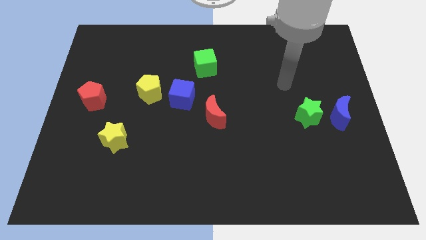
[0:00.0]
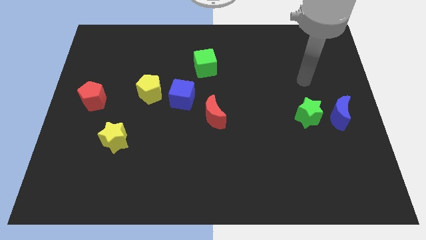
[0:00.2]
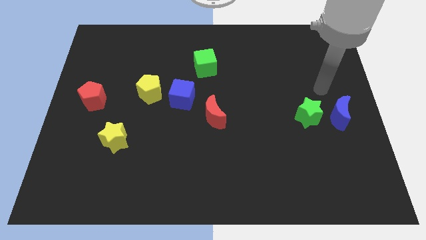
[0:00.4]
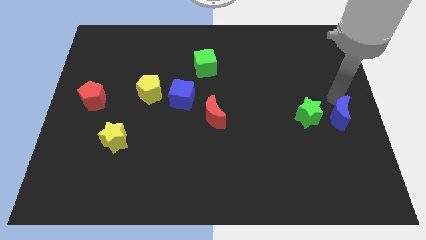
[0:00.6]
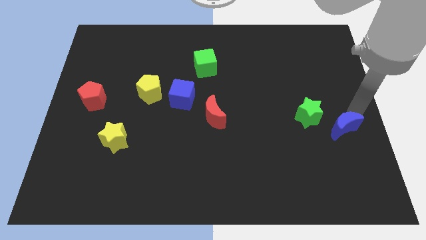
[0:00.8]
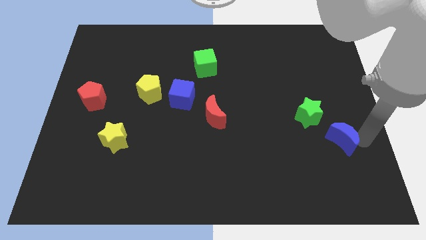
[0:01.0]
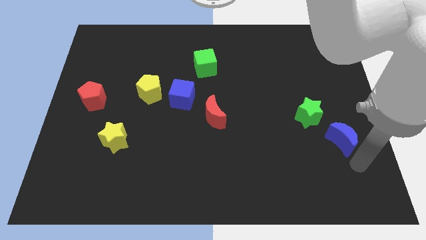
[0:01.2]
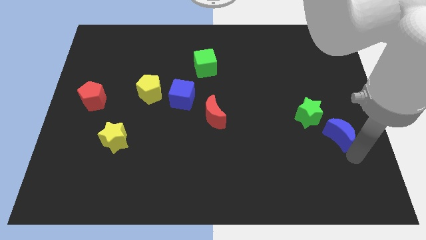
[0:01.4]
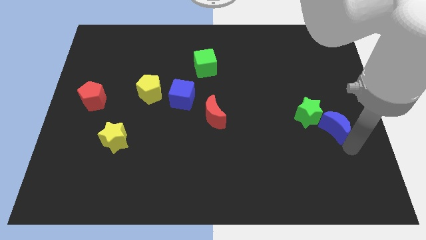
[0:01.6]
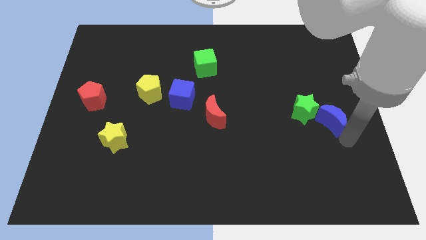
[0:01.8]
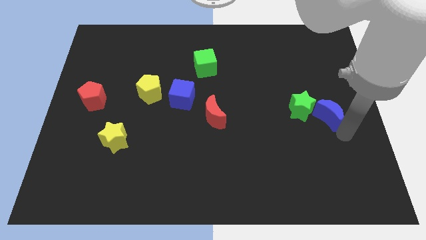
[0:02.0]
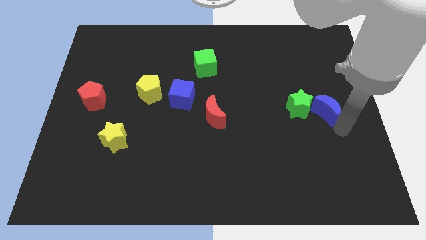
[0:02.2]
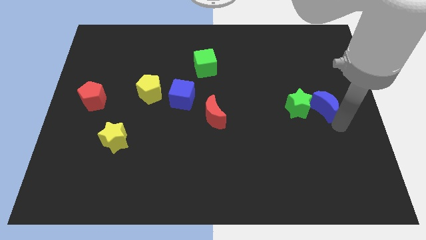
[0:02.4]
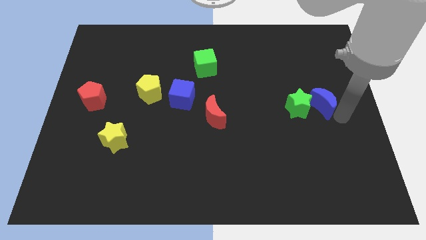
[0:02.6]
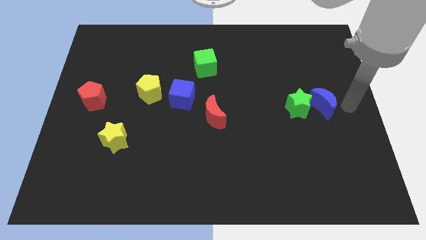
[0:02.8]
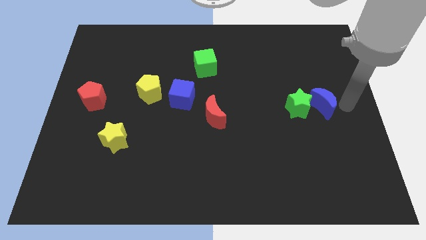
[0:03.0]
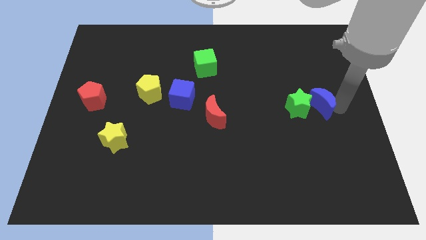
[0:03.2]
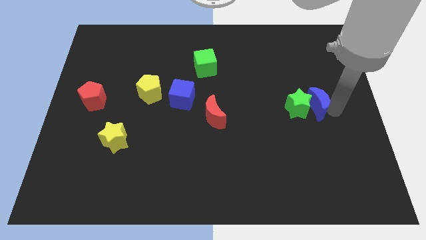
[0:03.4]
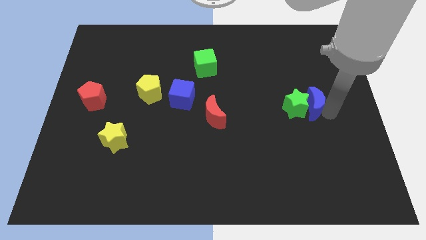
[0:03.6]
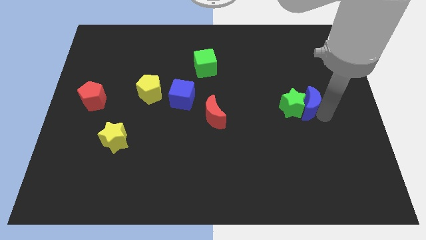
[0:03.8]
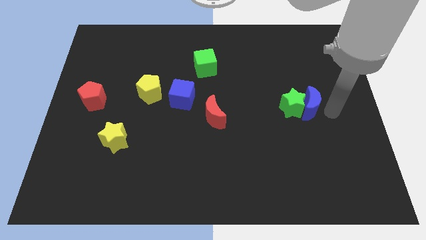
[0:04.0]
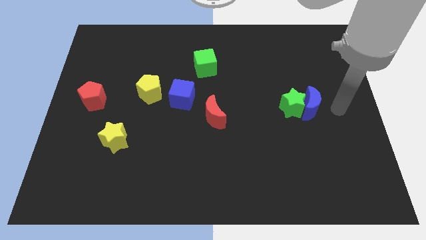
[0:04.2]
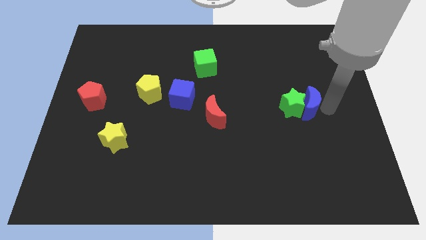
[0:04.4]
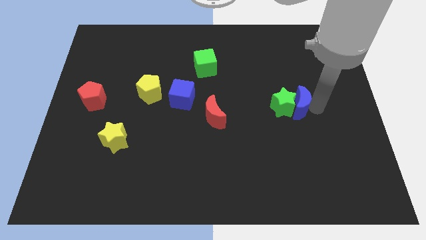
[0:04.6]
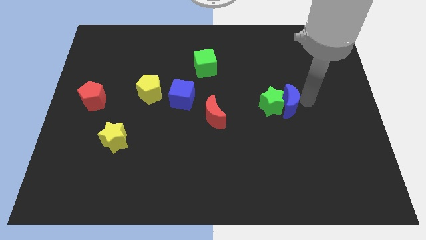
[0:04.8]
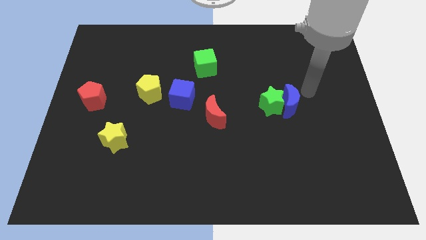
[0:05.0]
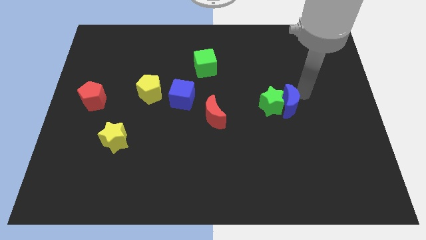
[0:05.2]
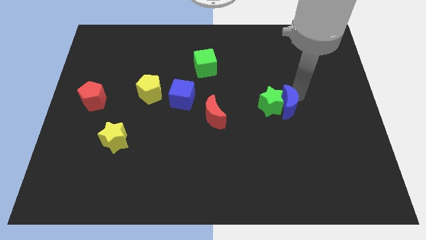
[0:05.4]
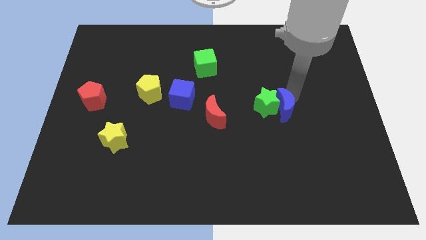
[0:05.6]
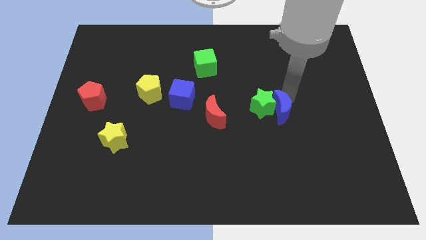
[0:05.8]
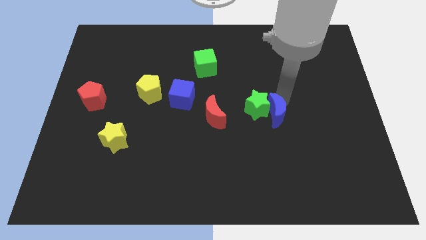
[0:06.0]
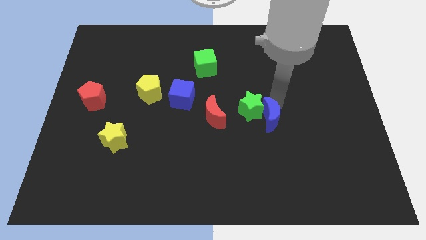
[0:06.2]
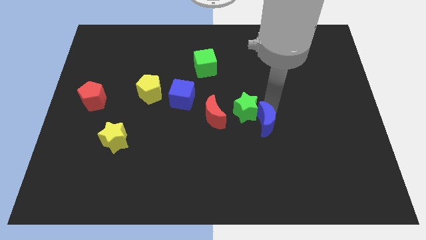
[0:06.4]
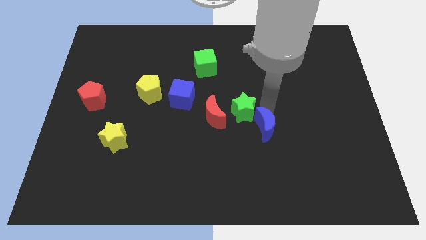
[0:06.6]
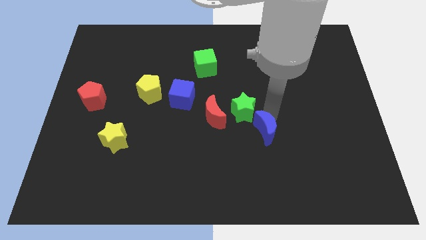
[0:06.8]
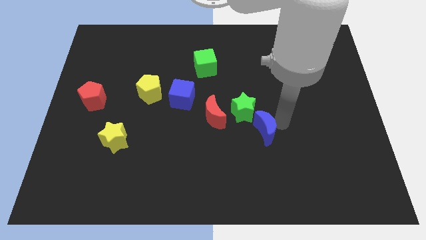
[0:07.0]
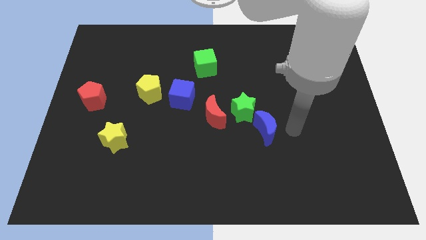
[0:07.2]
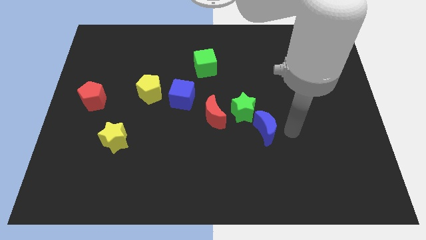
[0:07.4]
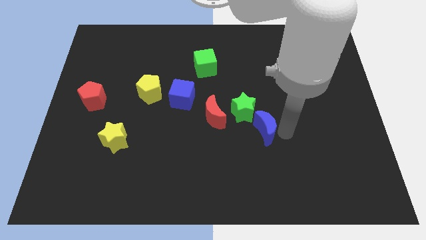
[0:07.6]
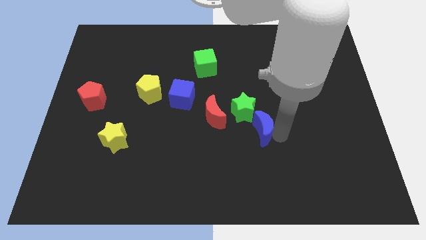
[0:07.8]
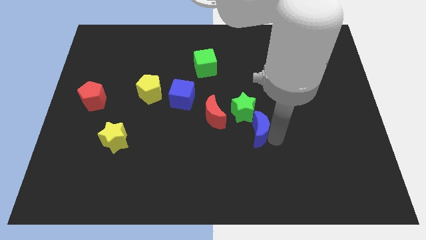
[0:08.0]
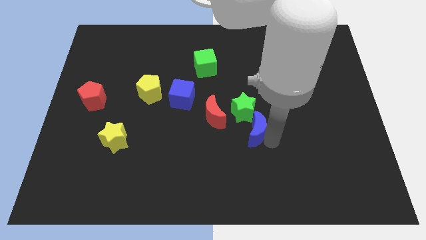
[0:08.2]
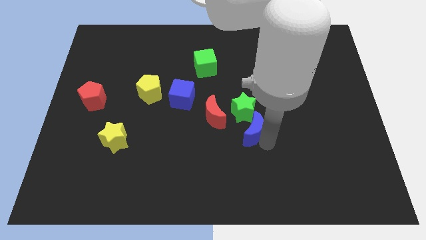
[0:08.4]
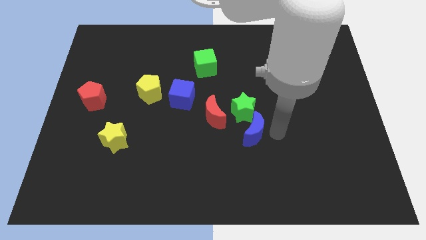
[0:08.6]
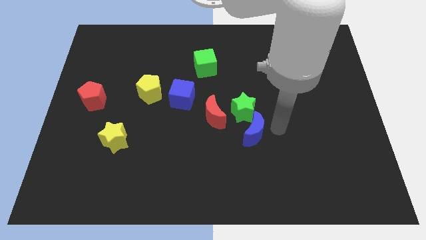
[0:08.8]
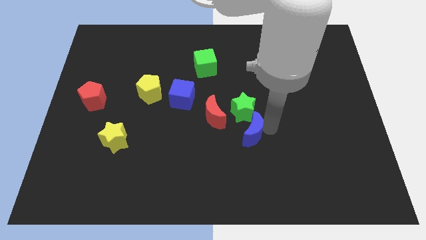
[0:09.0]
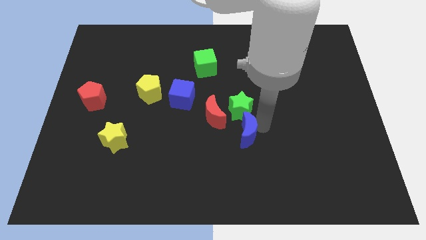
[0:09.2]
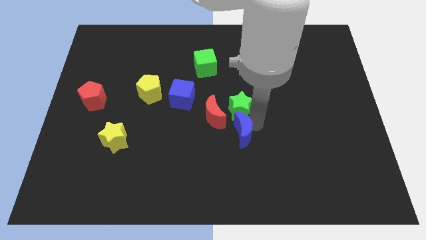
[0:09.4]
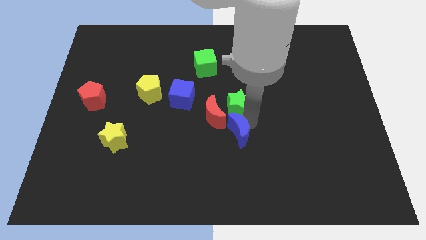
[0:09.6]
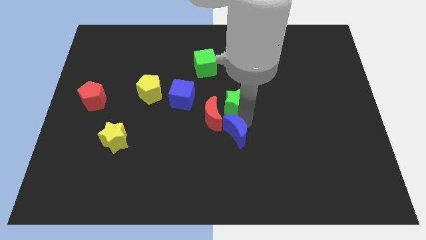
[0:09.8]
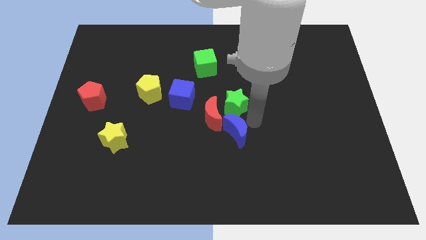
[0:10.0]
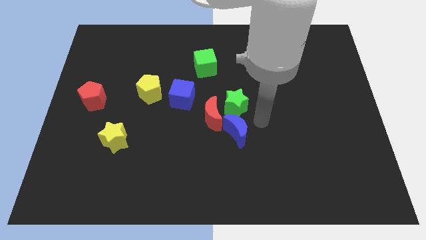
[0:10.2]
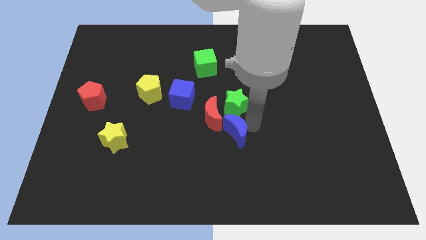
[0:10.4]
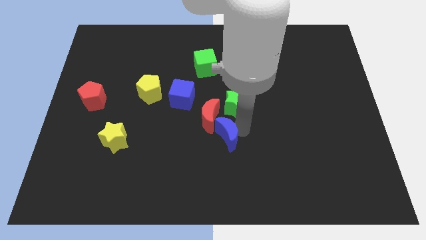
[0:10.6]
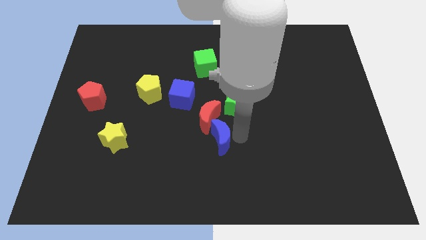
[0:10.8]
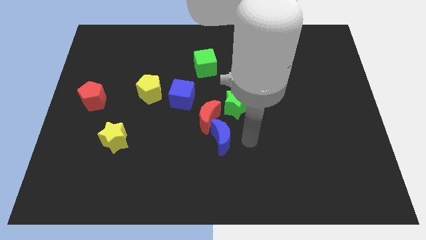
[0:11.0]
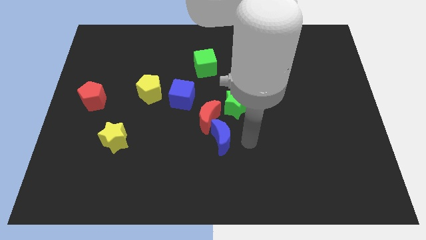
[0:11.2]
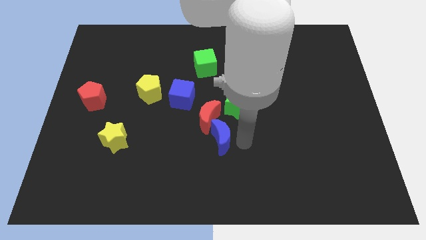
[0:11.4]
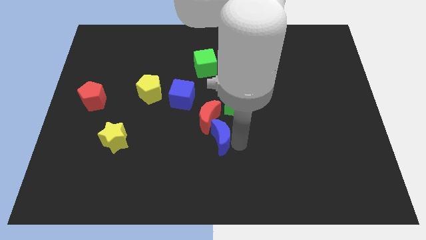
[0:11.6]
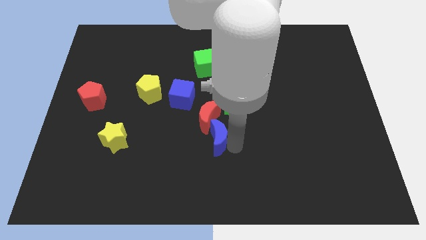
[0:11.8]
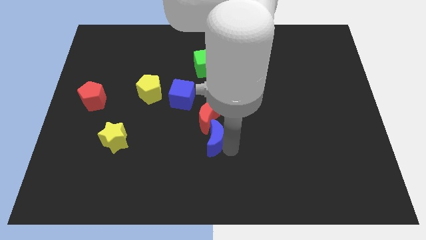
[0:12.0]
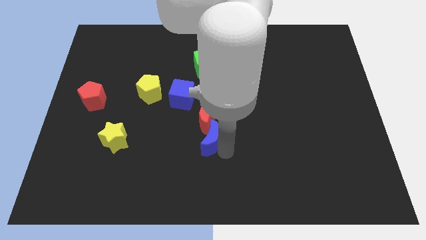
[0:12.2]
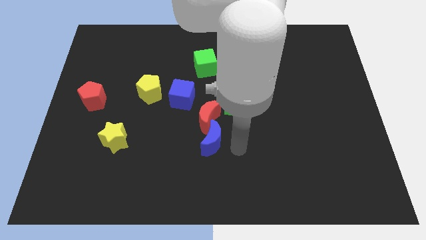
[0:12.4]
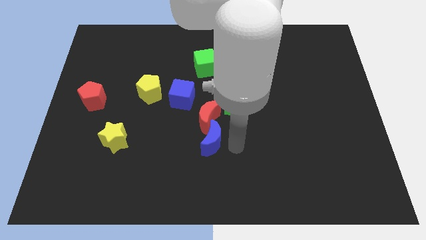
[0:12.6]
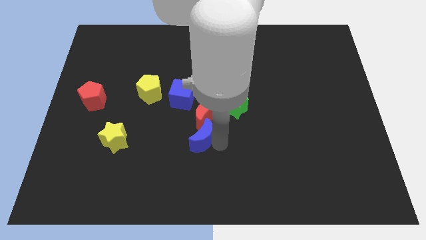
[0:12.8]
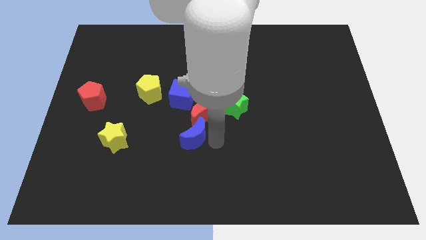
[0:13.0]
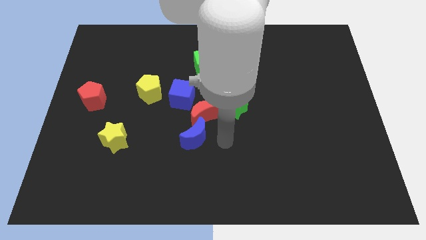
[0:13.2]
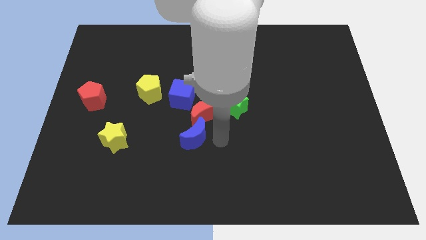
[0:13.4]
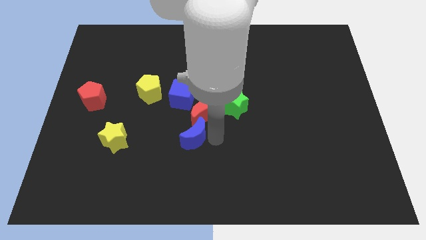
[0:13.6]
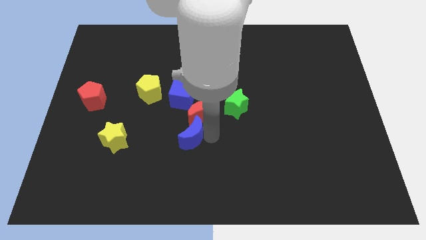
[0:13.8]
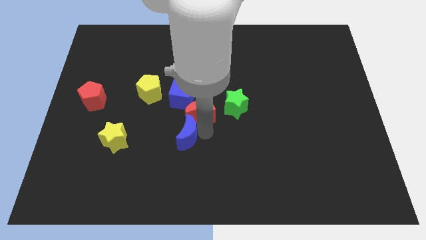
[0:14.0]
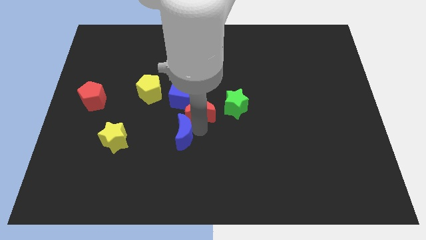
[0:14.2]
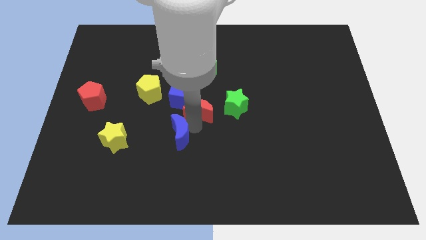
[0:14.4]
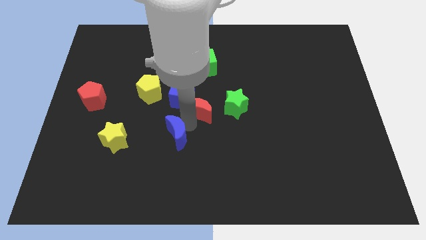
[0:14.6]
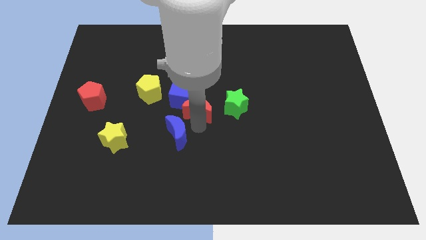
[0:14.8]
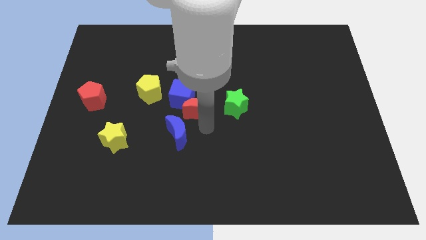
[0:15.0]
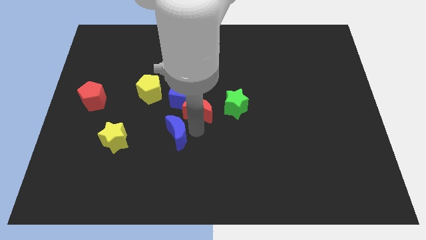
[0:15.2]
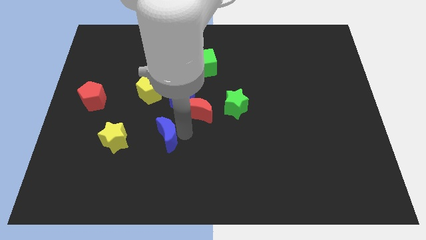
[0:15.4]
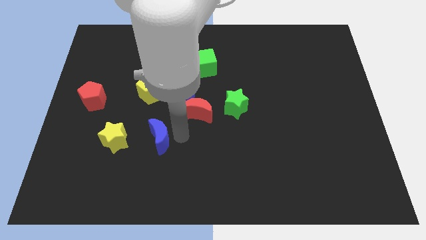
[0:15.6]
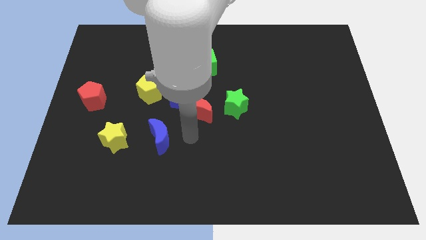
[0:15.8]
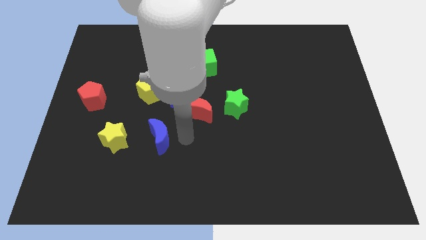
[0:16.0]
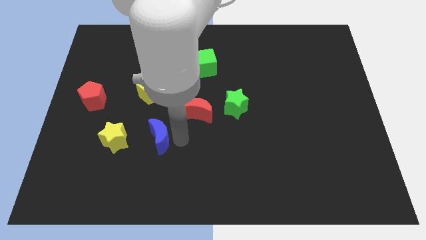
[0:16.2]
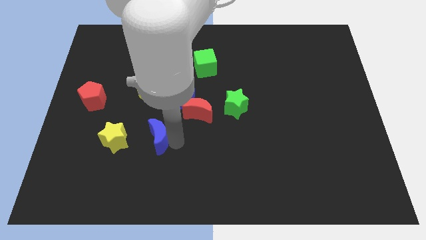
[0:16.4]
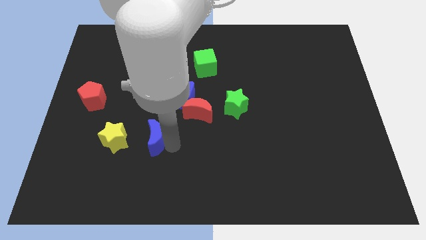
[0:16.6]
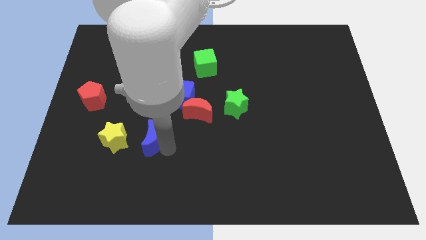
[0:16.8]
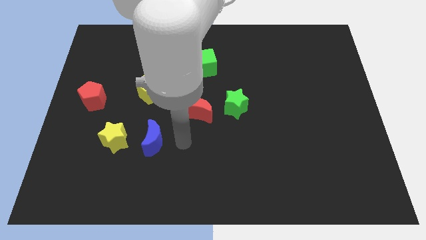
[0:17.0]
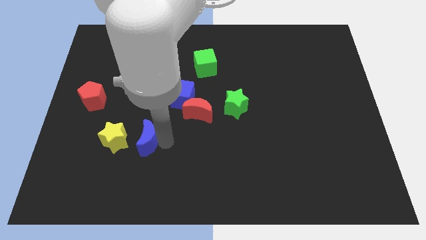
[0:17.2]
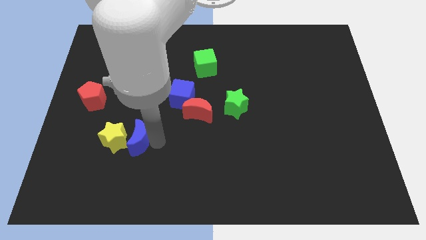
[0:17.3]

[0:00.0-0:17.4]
move the blue moon close to the yellow star
